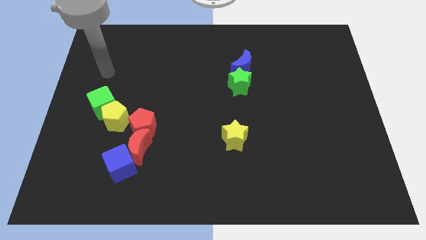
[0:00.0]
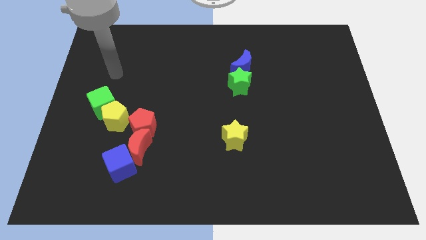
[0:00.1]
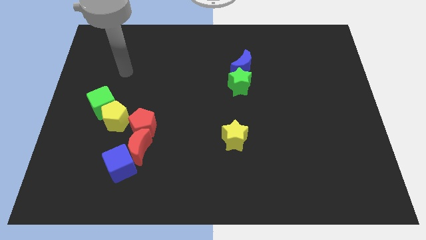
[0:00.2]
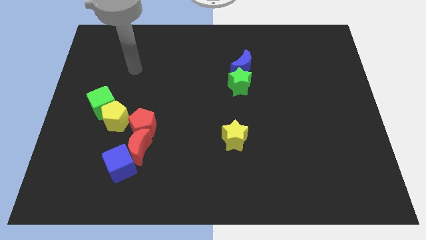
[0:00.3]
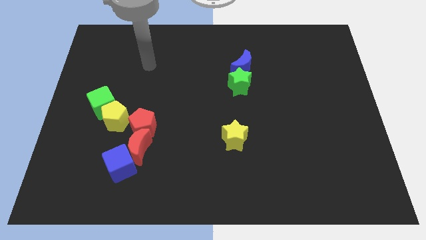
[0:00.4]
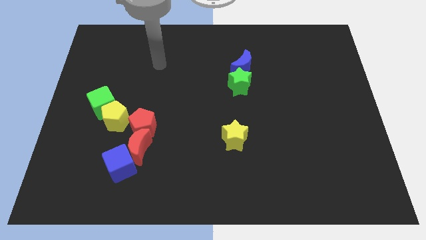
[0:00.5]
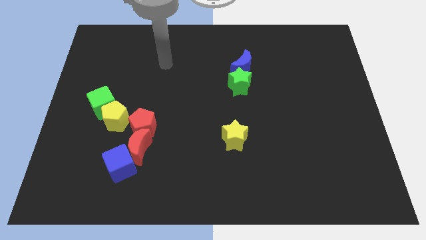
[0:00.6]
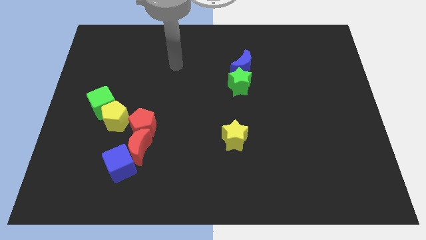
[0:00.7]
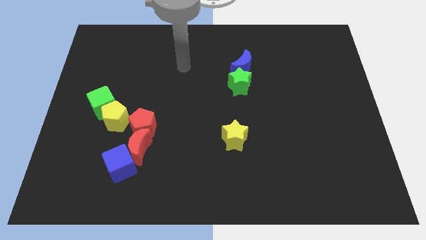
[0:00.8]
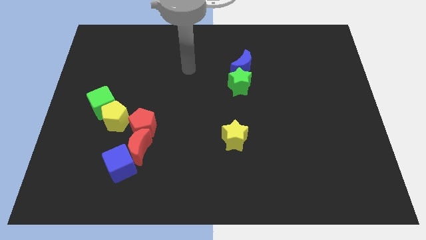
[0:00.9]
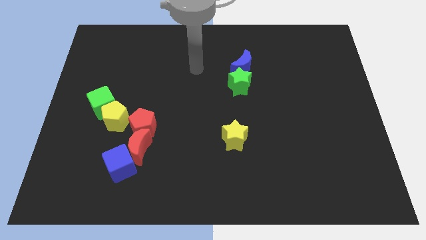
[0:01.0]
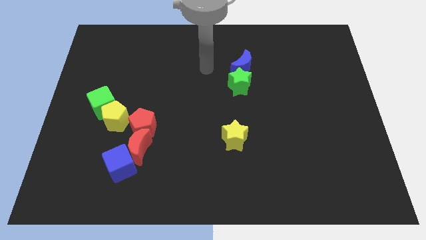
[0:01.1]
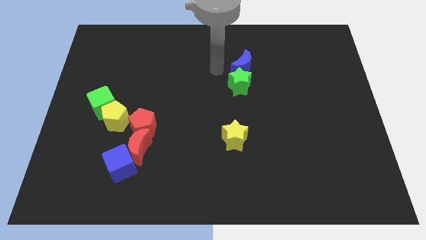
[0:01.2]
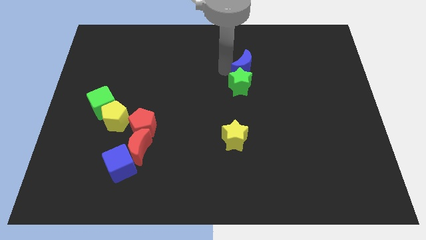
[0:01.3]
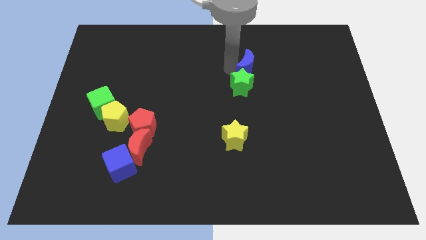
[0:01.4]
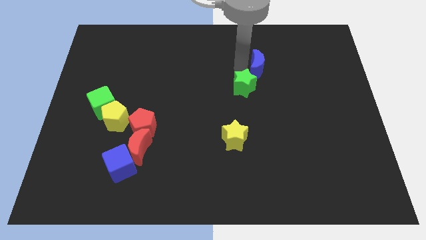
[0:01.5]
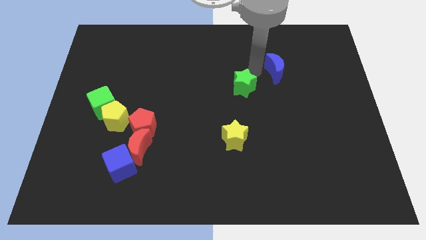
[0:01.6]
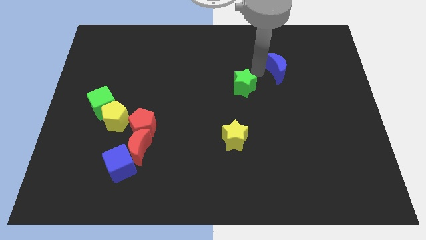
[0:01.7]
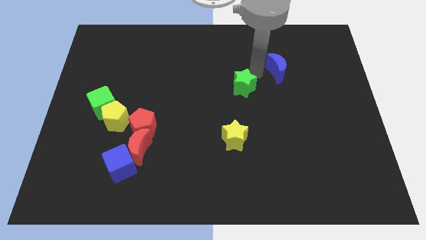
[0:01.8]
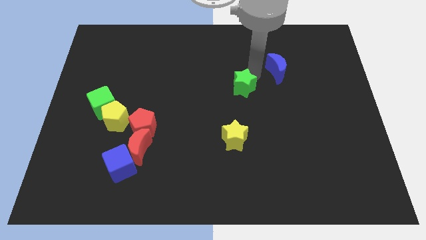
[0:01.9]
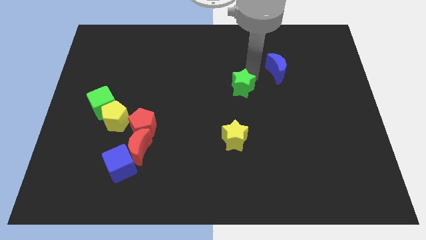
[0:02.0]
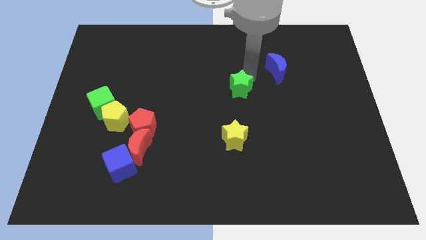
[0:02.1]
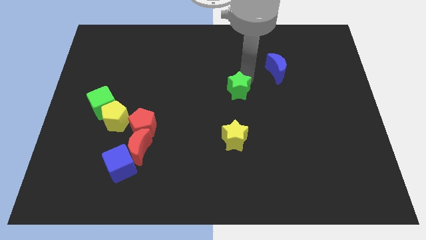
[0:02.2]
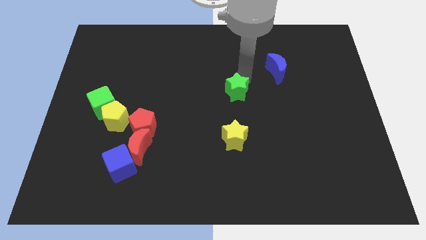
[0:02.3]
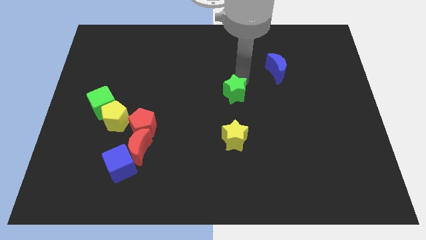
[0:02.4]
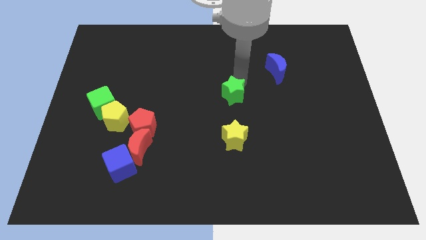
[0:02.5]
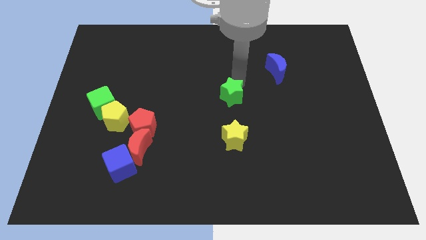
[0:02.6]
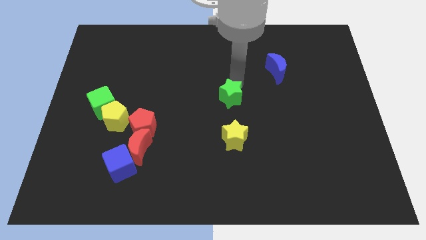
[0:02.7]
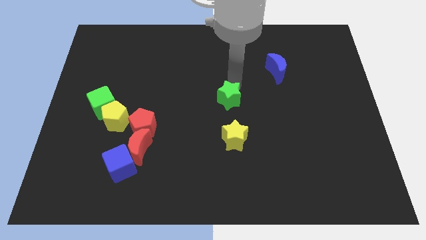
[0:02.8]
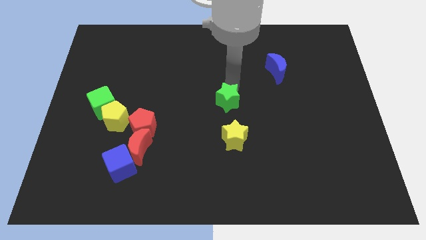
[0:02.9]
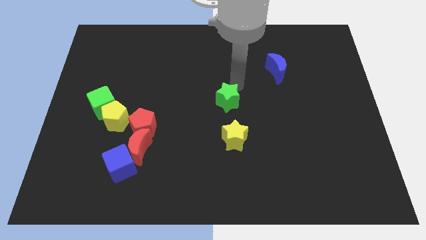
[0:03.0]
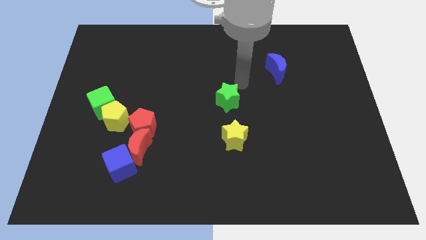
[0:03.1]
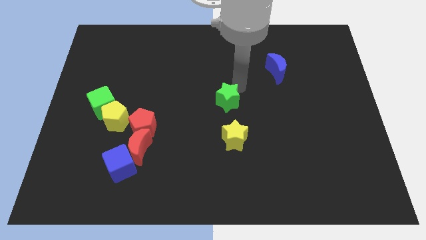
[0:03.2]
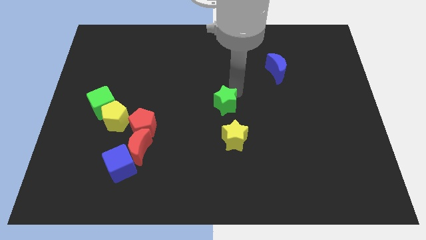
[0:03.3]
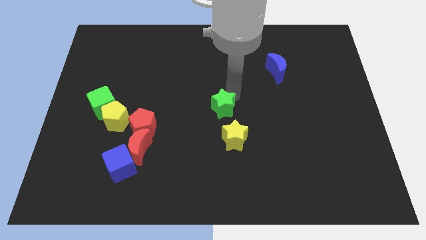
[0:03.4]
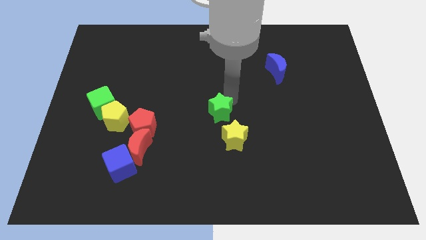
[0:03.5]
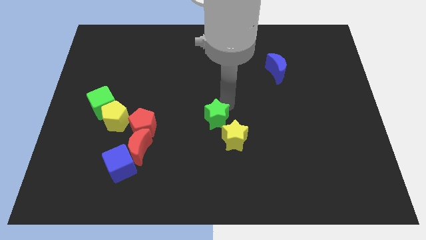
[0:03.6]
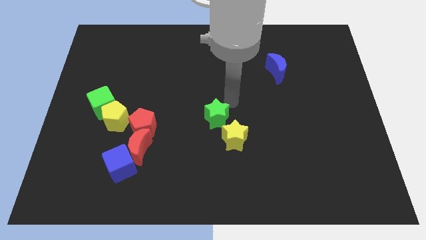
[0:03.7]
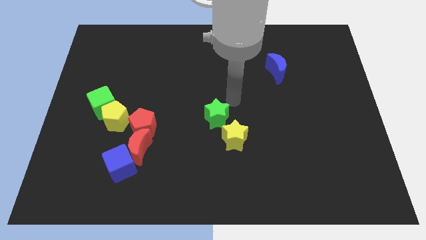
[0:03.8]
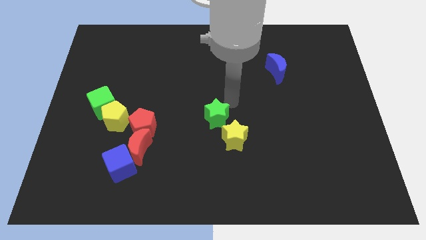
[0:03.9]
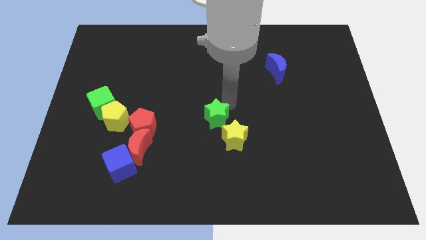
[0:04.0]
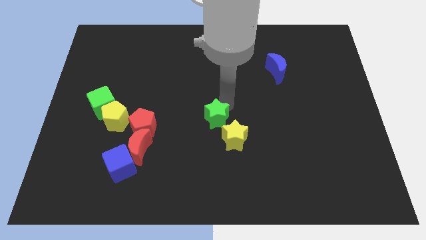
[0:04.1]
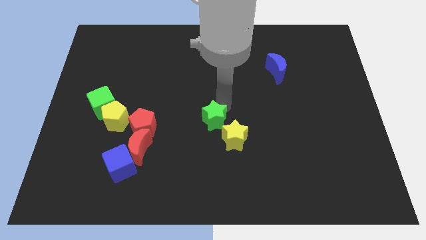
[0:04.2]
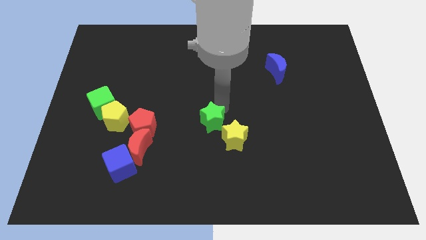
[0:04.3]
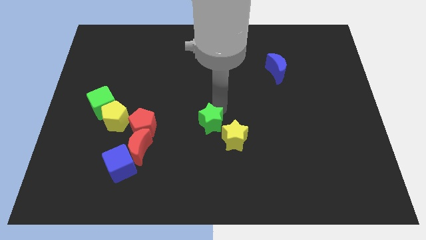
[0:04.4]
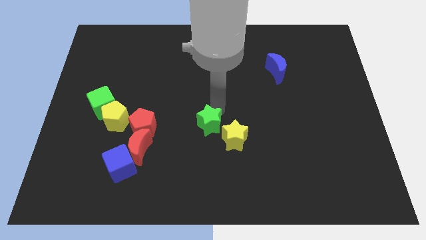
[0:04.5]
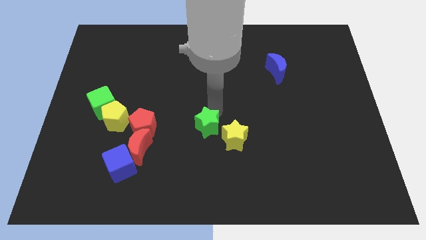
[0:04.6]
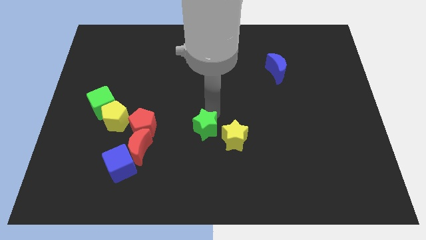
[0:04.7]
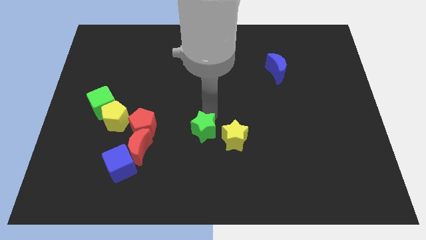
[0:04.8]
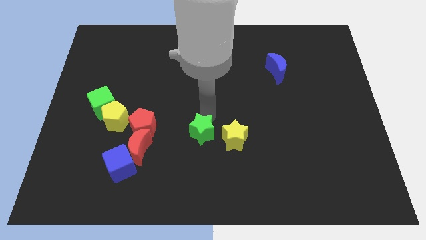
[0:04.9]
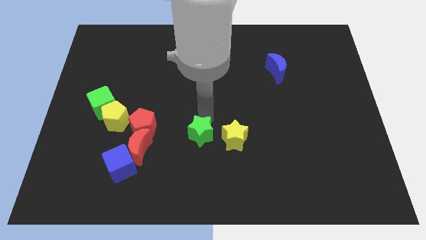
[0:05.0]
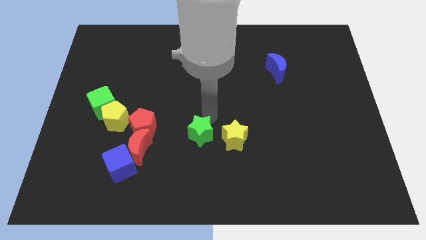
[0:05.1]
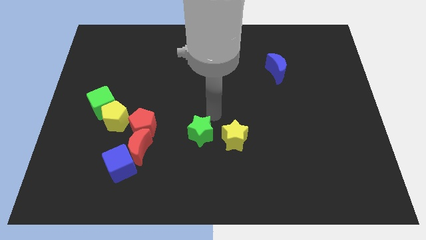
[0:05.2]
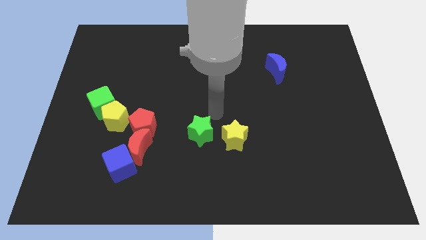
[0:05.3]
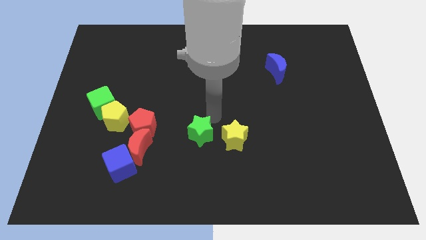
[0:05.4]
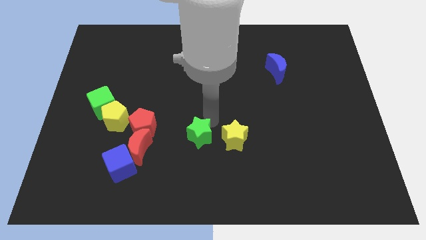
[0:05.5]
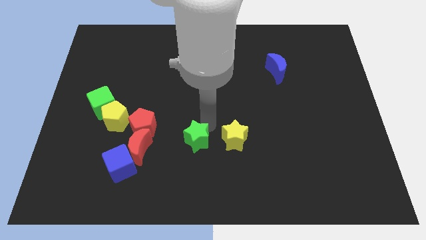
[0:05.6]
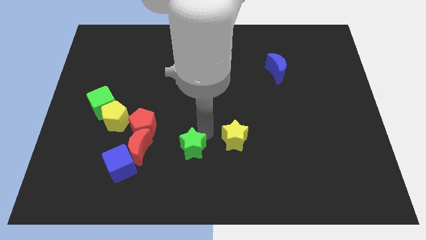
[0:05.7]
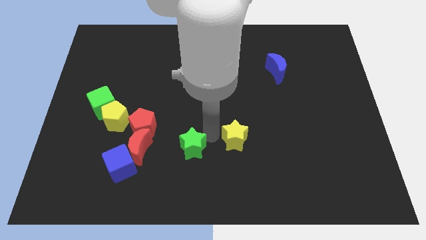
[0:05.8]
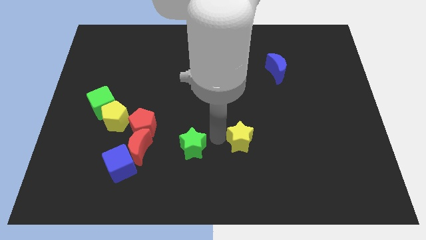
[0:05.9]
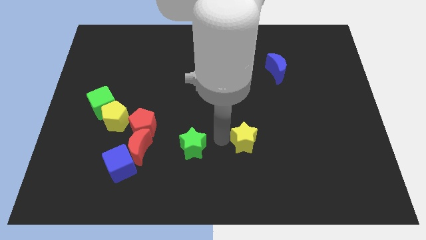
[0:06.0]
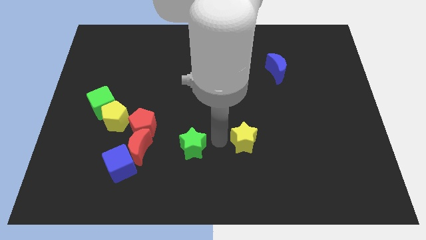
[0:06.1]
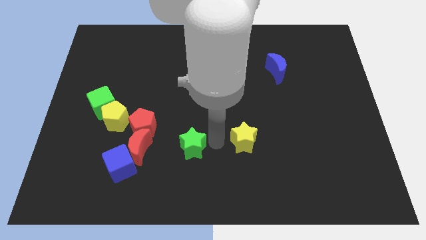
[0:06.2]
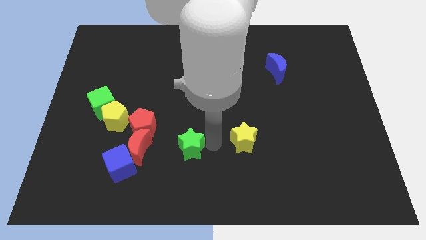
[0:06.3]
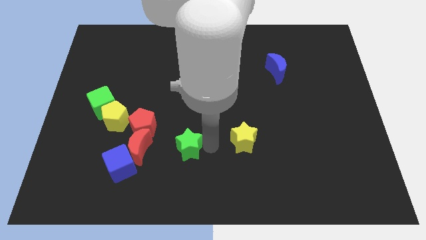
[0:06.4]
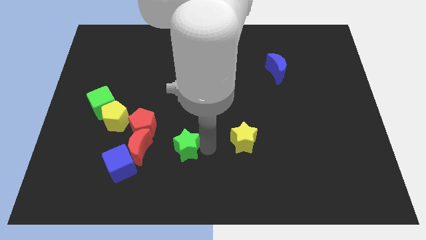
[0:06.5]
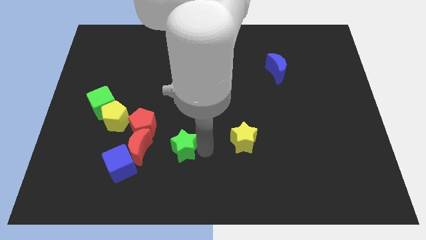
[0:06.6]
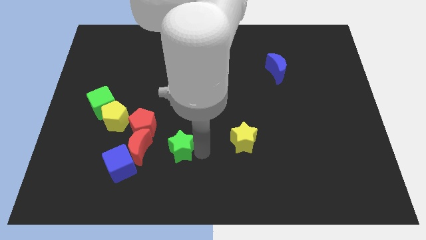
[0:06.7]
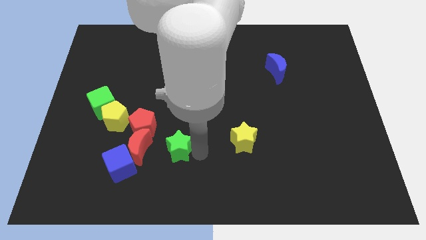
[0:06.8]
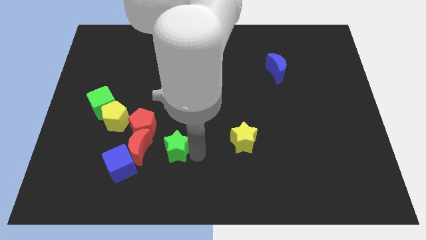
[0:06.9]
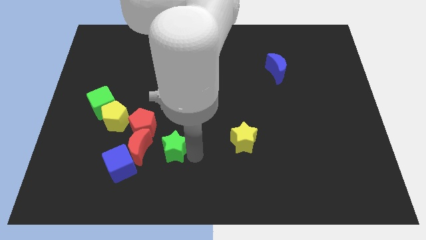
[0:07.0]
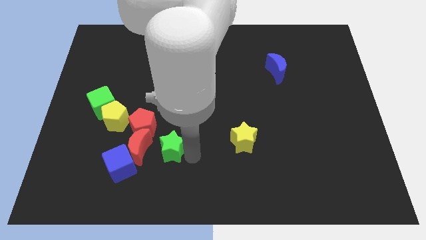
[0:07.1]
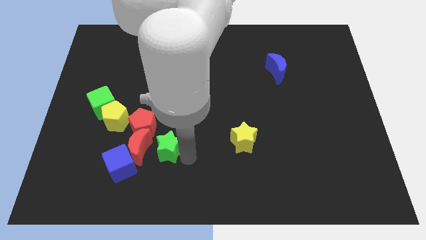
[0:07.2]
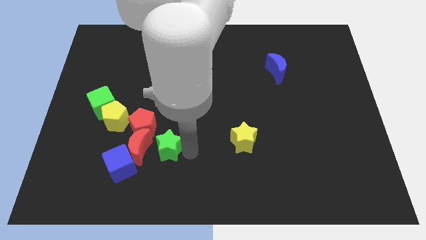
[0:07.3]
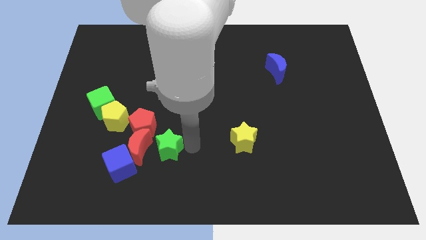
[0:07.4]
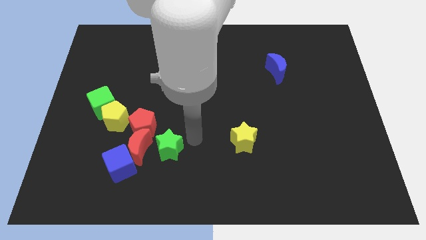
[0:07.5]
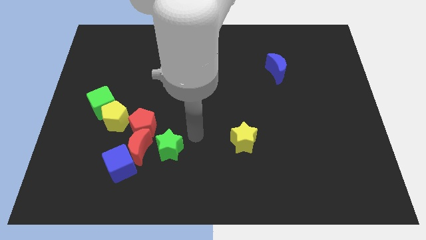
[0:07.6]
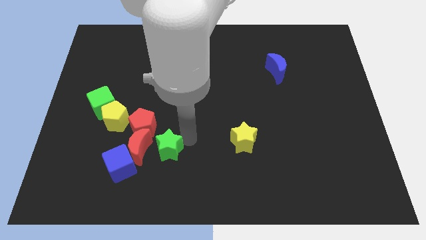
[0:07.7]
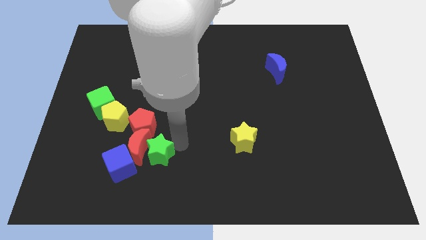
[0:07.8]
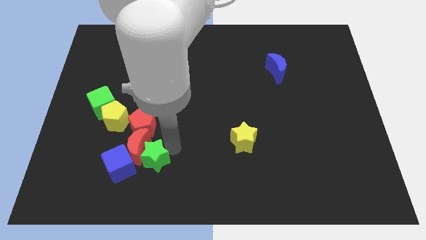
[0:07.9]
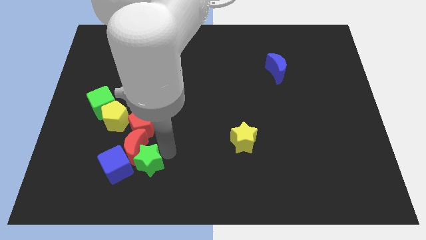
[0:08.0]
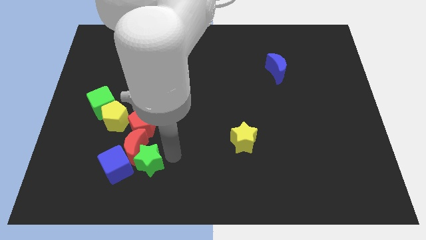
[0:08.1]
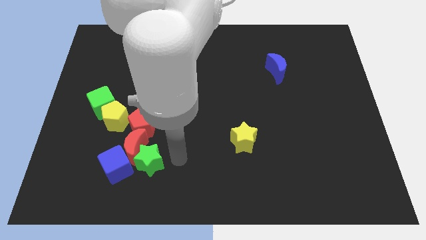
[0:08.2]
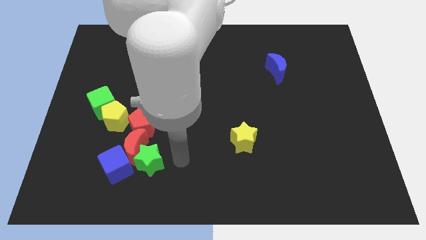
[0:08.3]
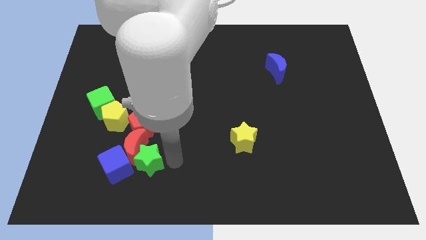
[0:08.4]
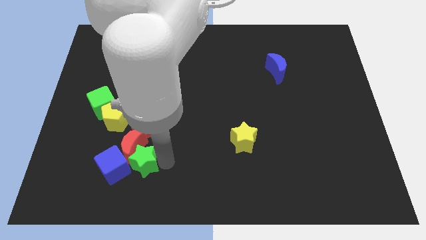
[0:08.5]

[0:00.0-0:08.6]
slide the green star close to the blue cube

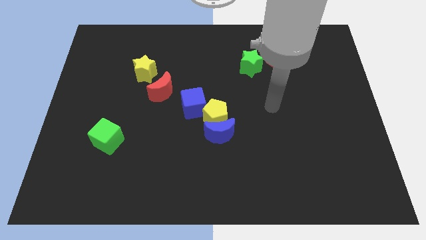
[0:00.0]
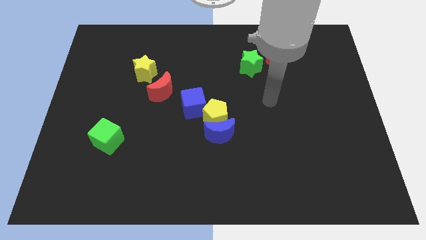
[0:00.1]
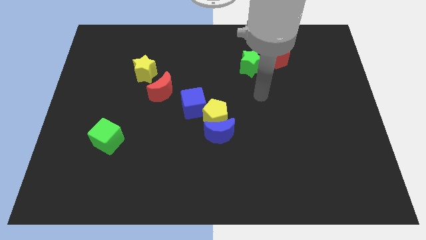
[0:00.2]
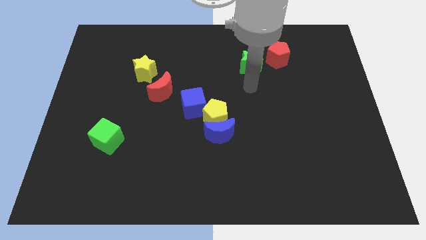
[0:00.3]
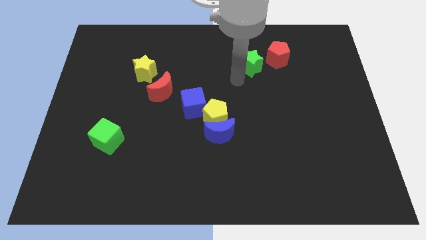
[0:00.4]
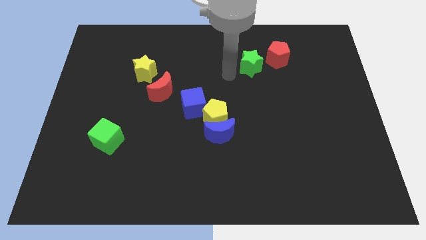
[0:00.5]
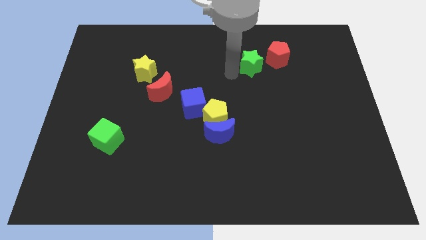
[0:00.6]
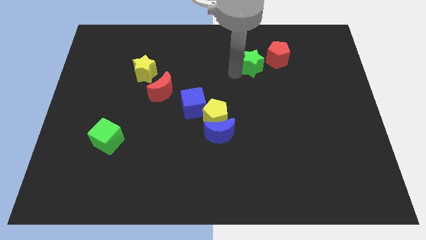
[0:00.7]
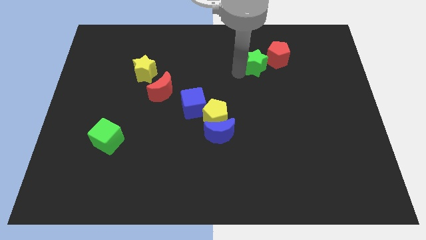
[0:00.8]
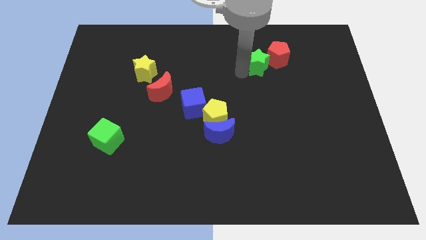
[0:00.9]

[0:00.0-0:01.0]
put the green star towards the red pentagon
